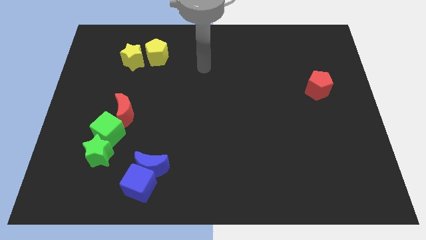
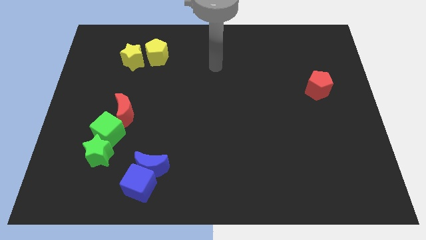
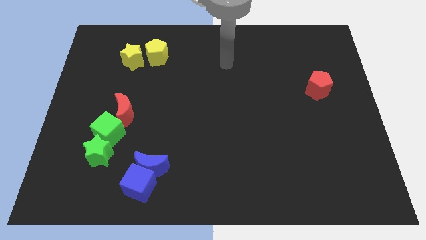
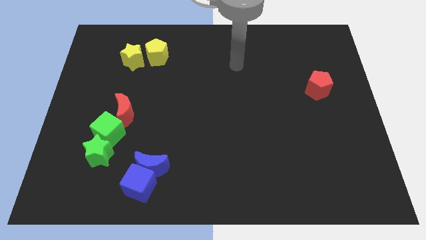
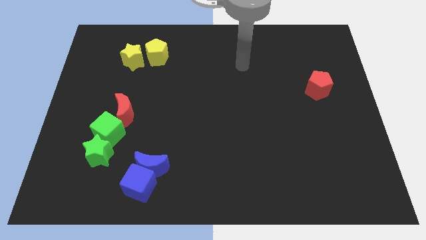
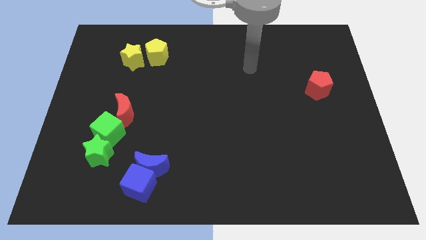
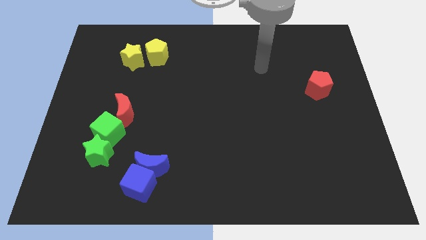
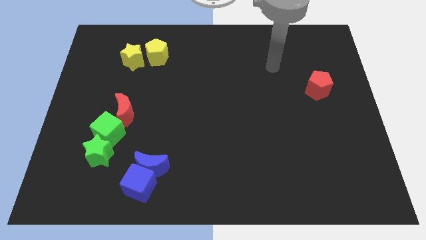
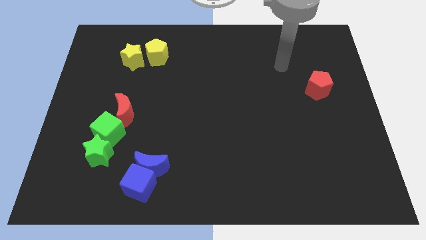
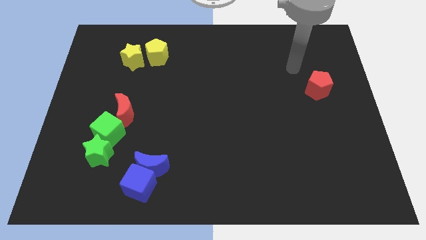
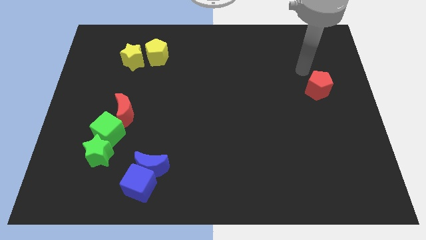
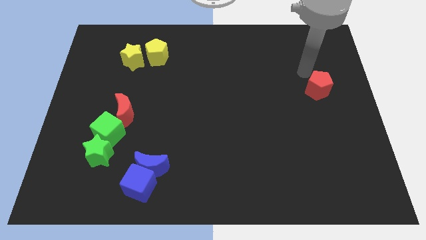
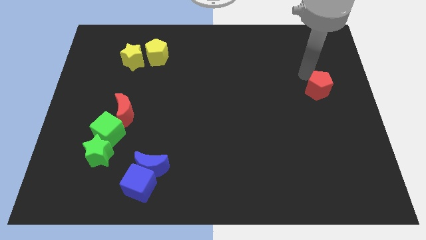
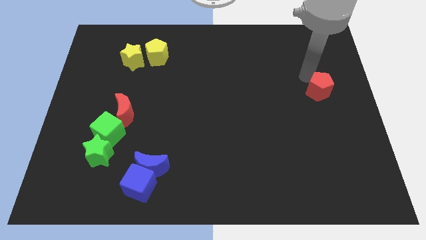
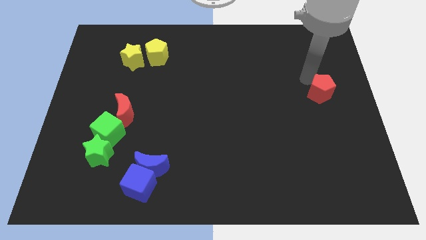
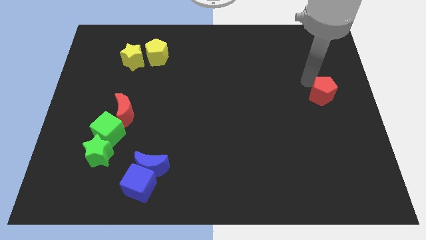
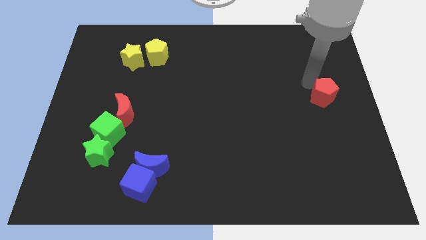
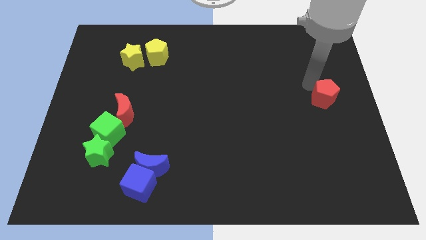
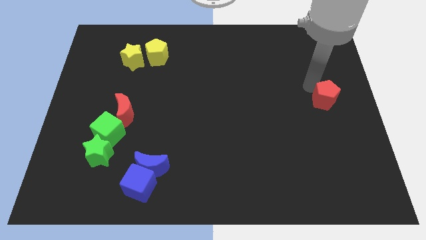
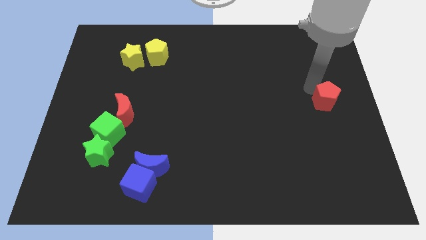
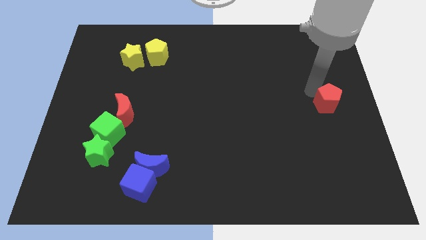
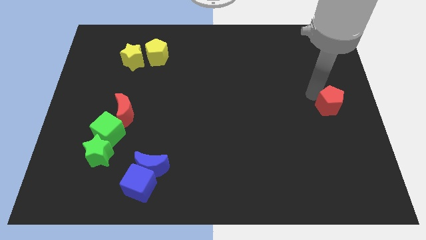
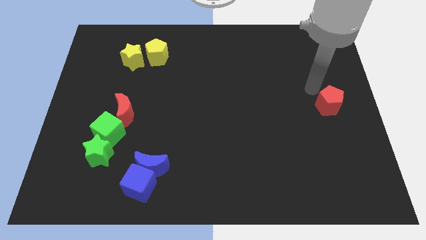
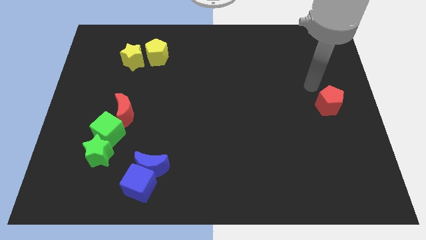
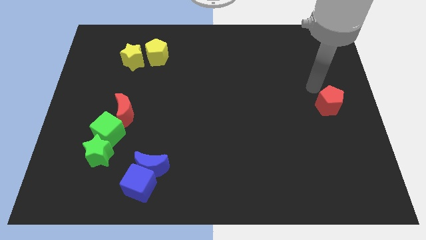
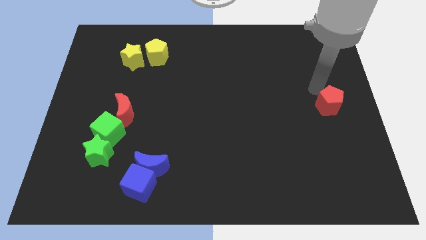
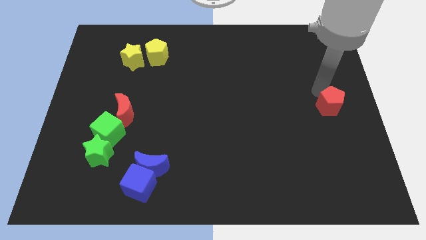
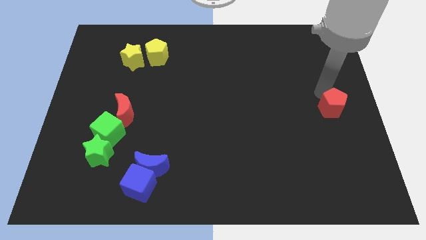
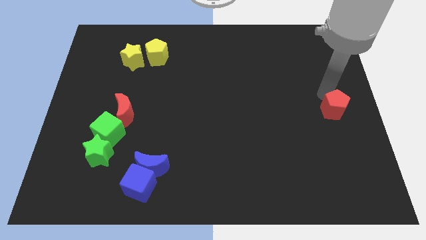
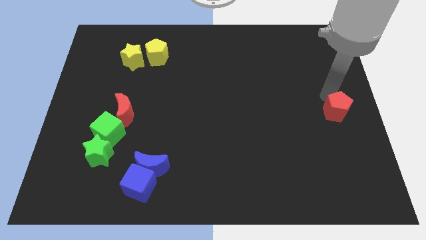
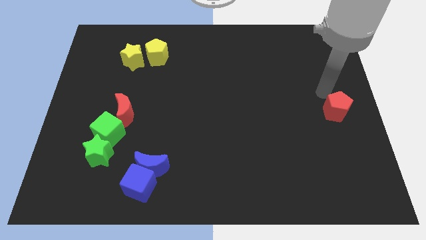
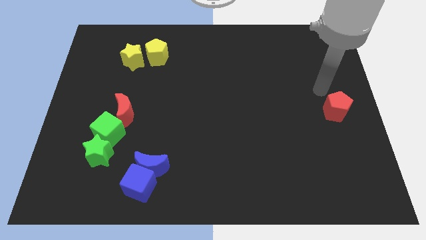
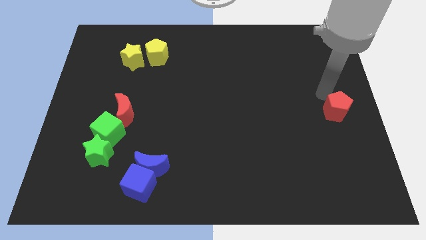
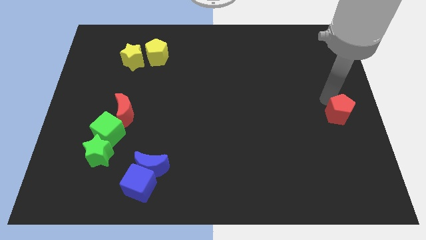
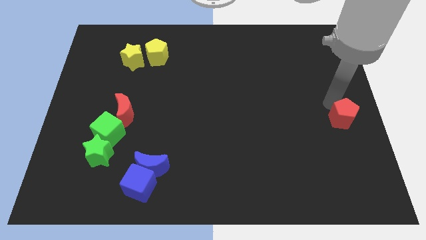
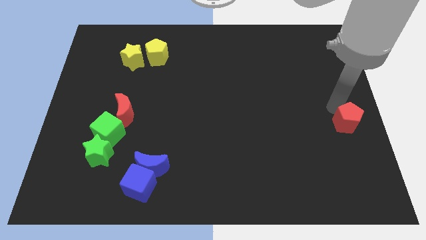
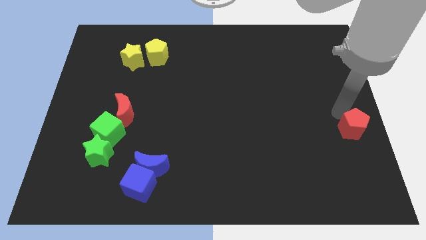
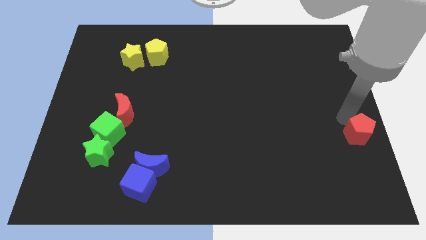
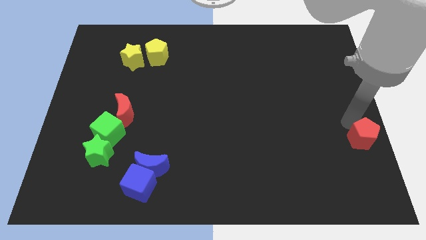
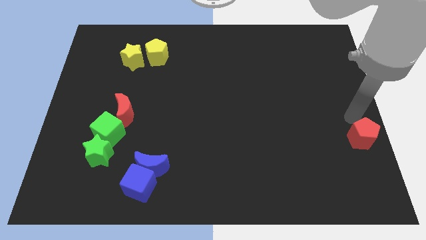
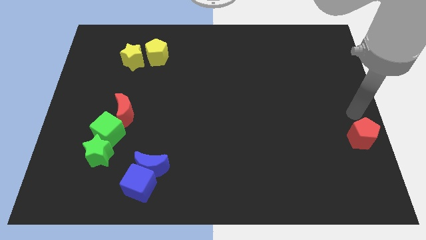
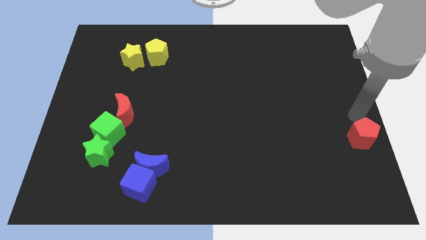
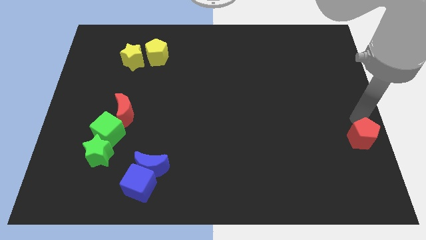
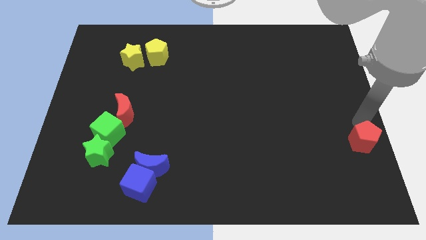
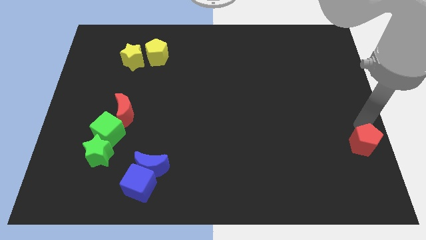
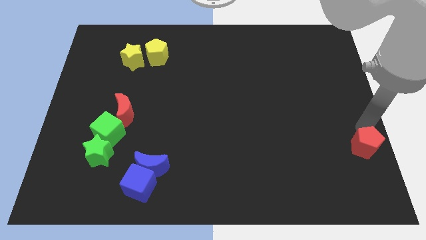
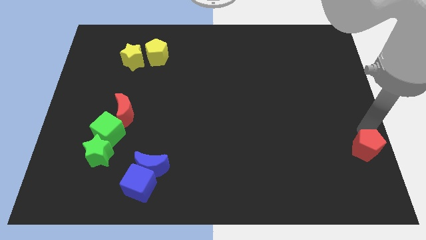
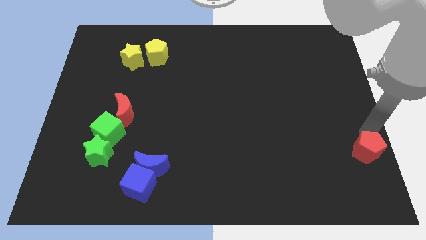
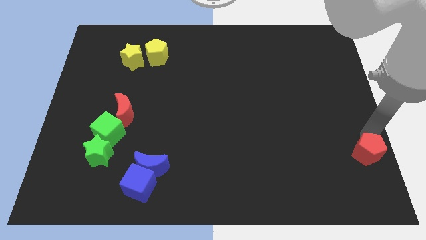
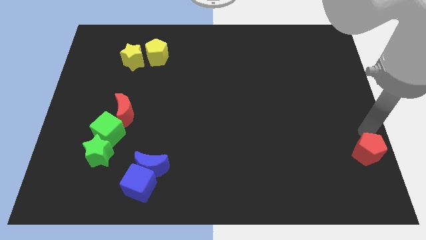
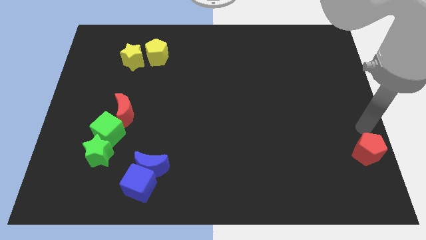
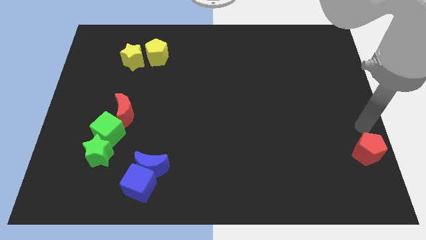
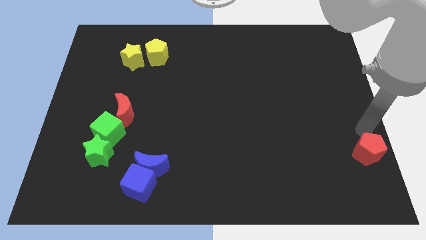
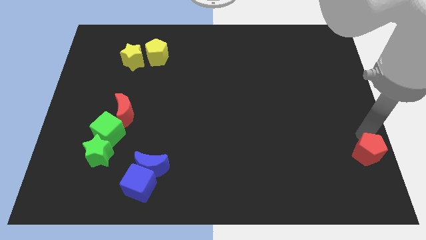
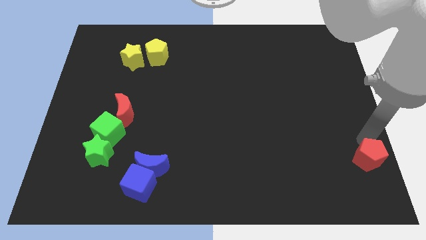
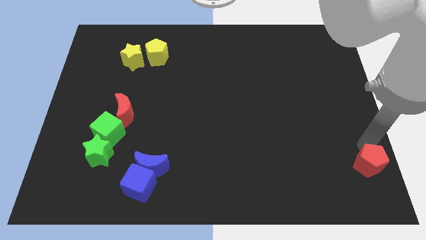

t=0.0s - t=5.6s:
slide the red pentagon to the bottom right of the board

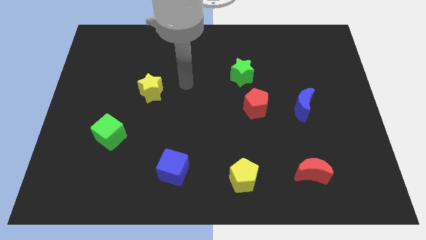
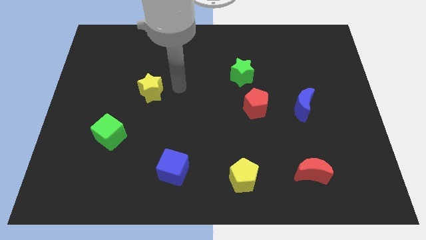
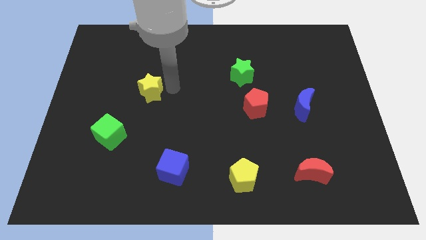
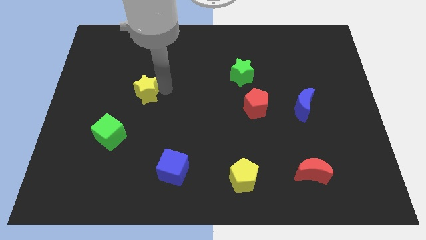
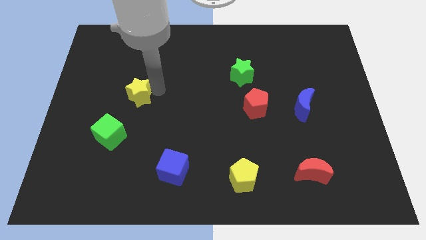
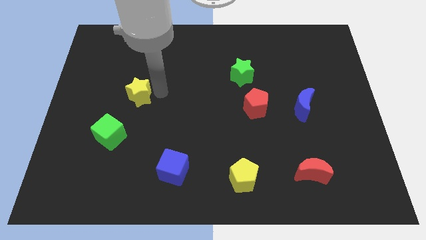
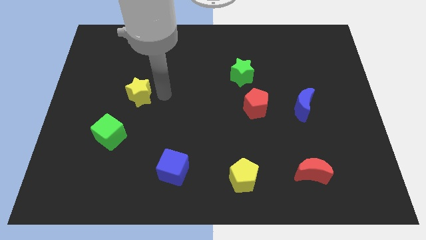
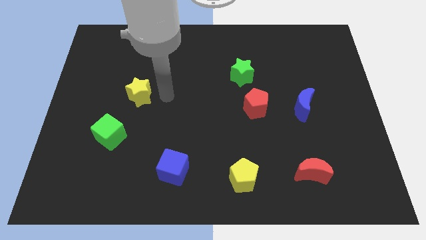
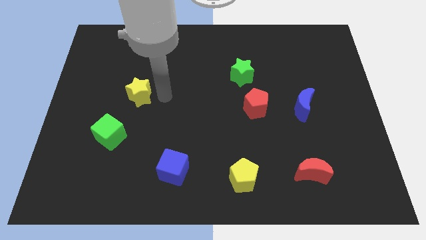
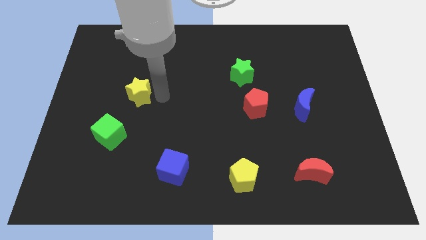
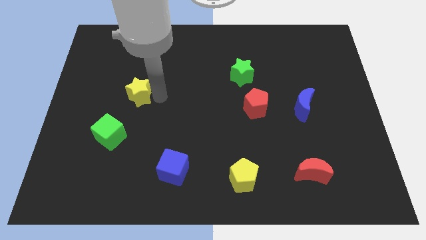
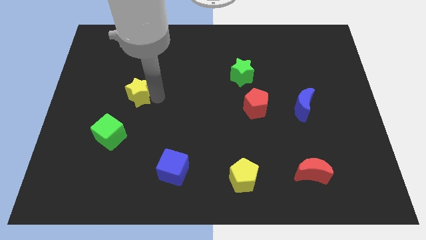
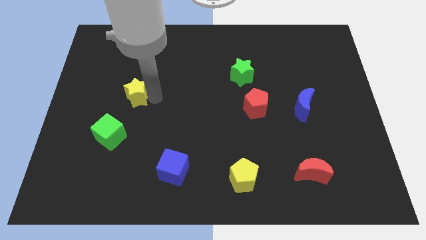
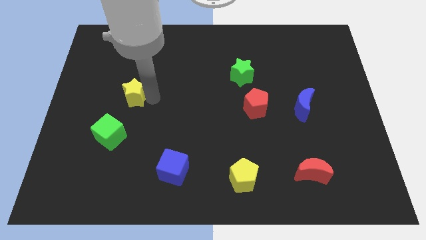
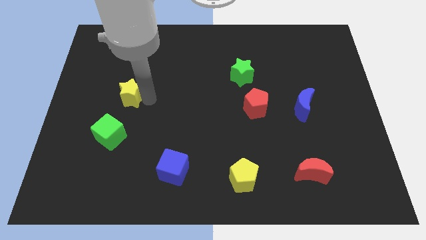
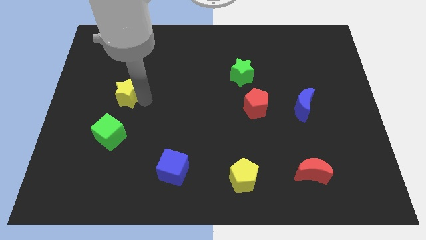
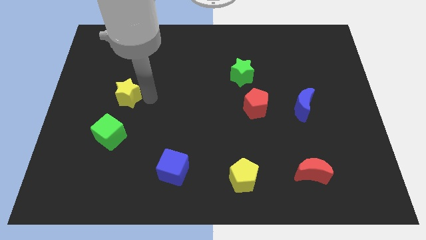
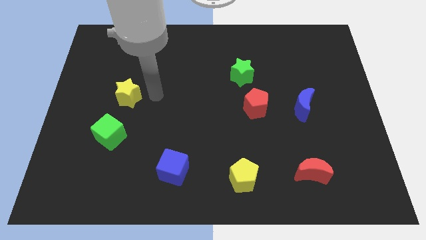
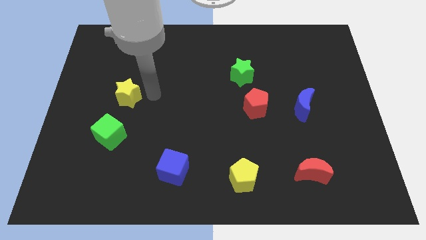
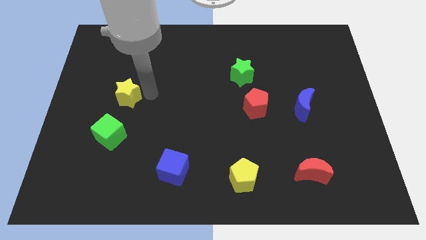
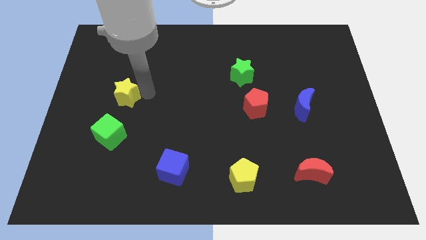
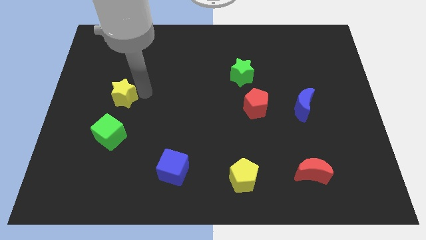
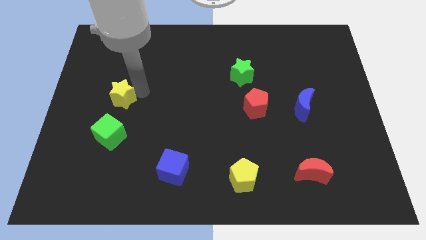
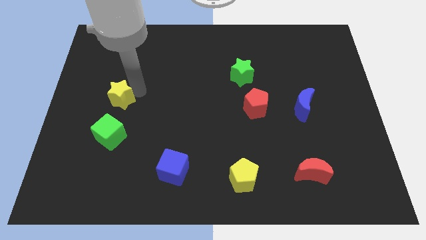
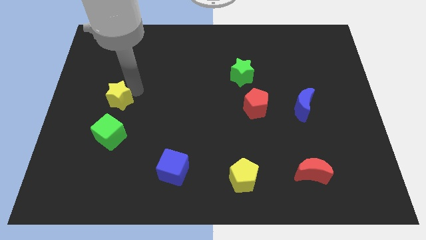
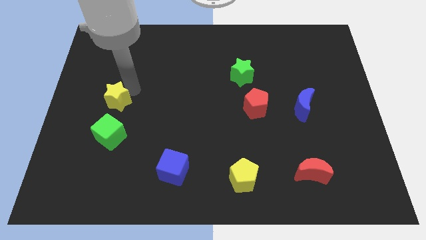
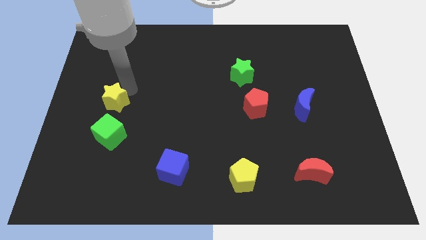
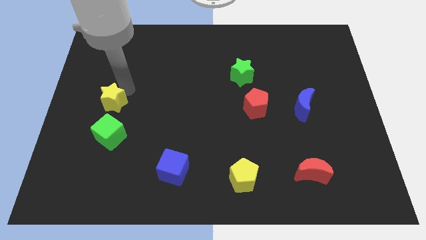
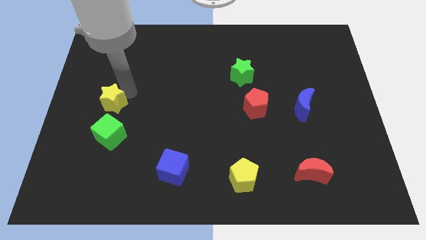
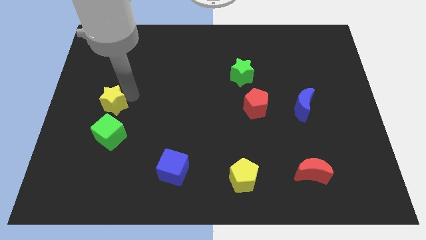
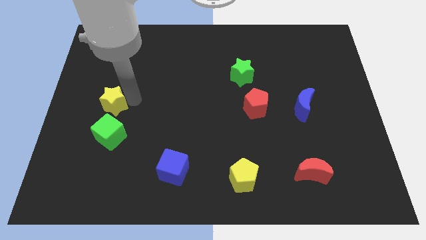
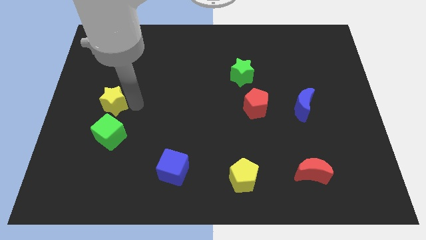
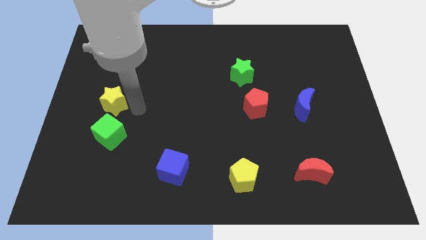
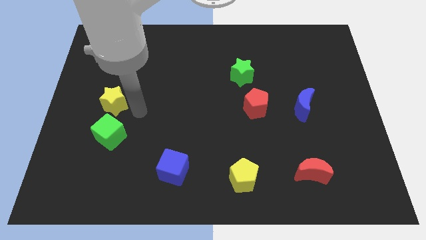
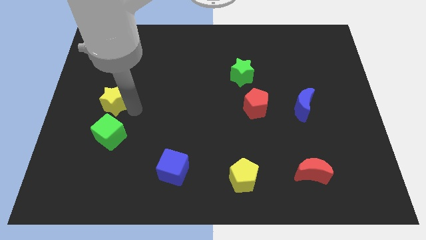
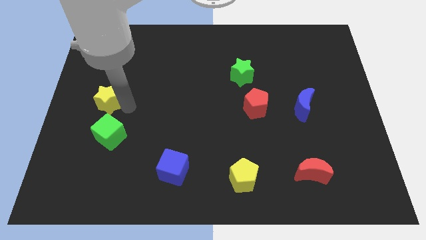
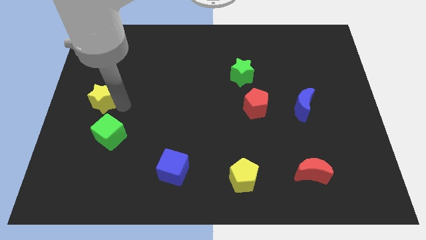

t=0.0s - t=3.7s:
slide the yellow star to the left side
